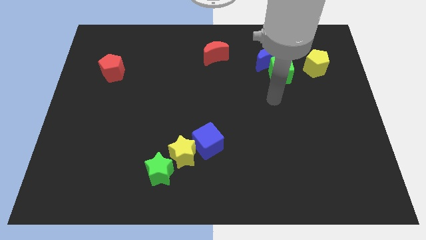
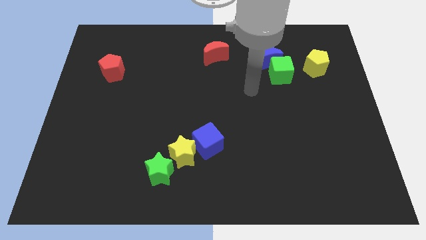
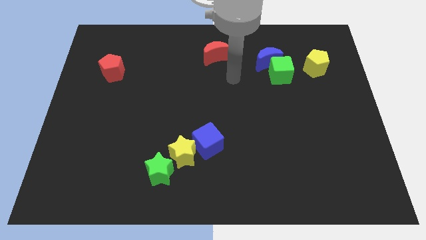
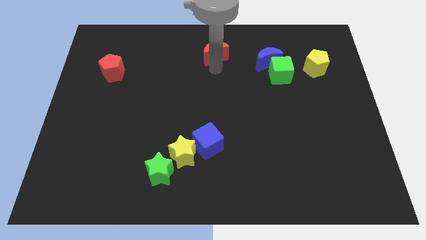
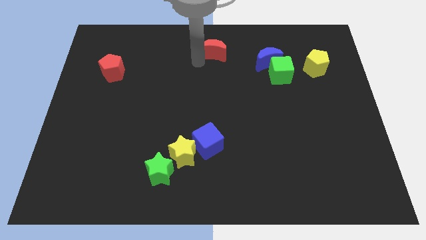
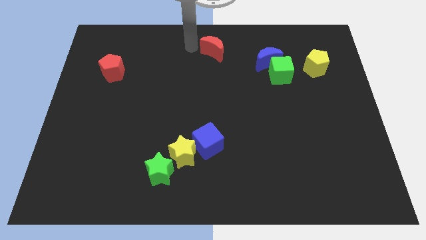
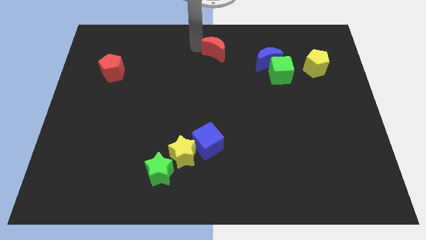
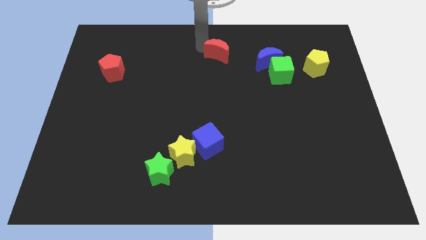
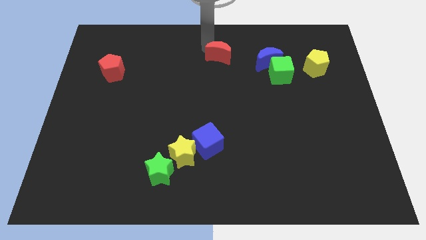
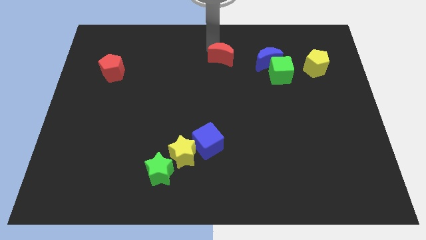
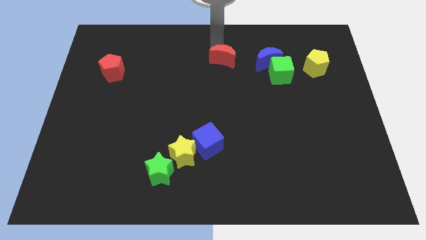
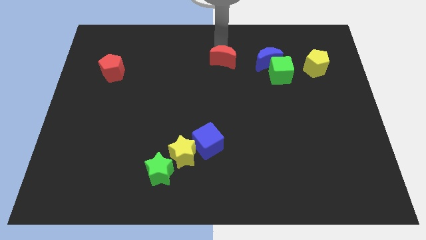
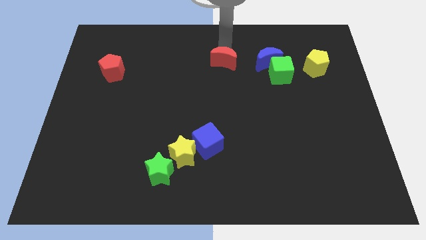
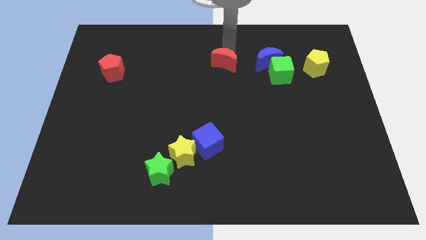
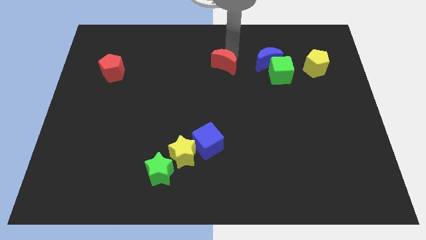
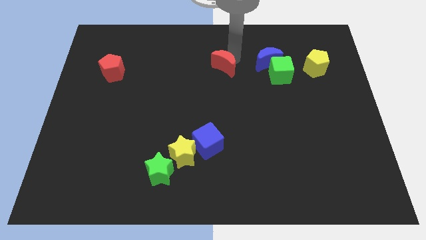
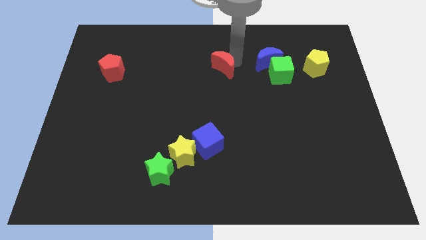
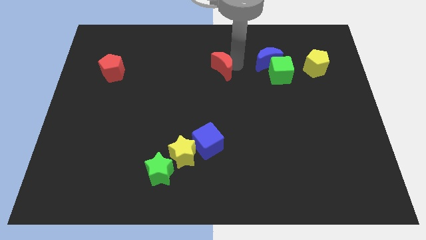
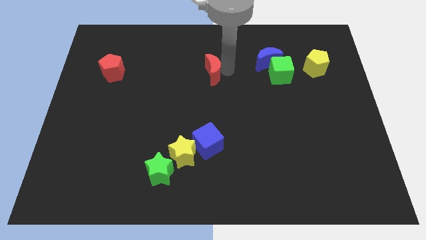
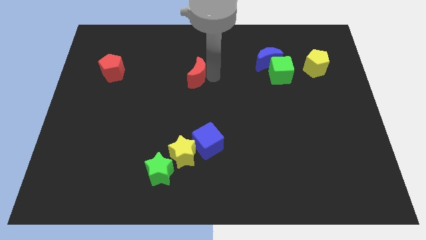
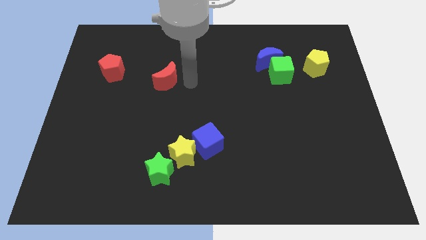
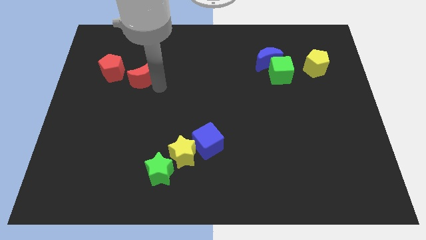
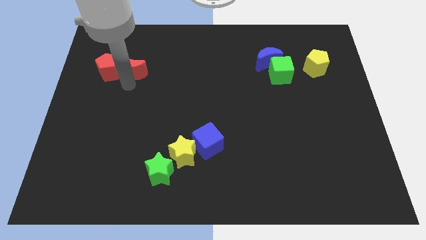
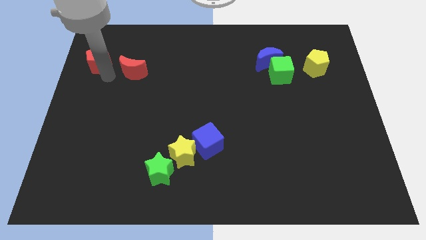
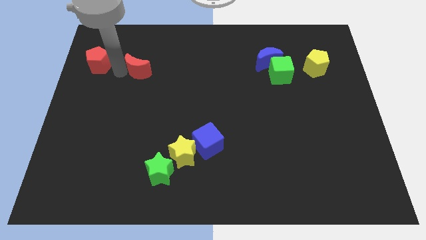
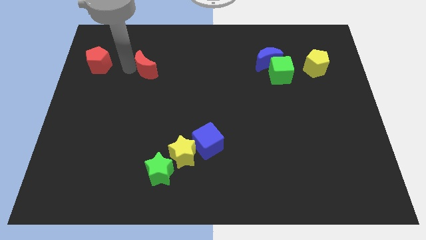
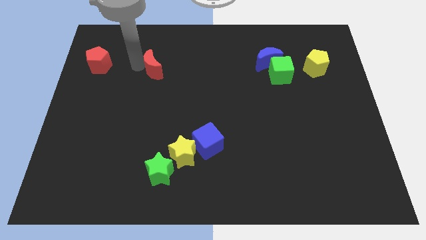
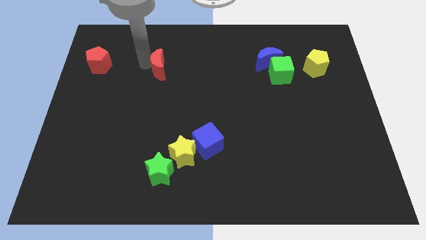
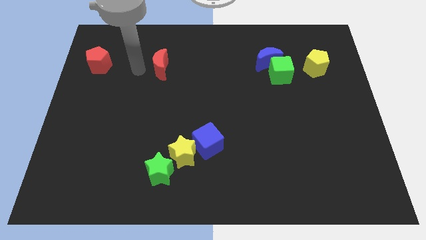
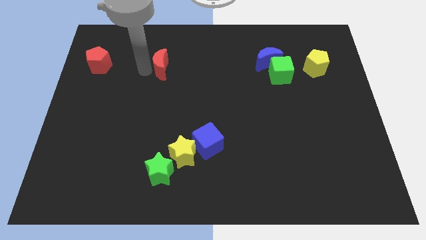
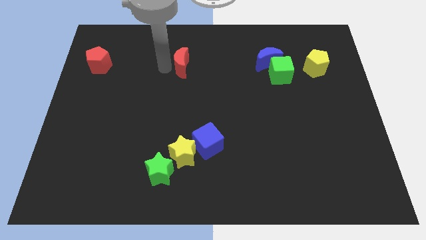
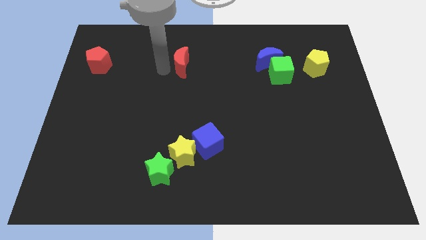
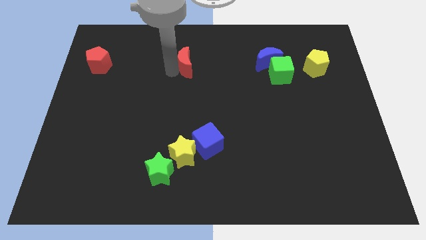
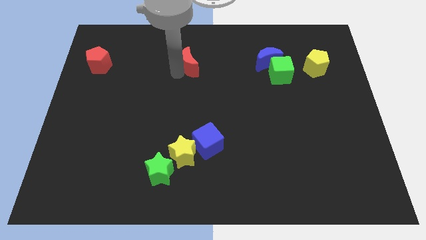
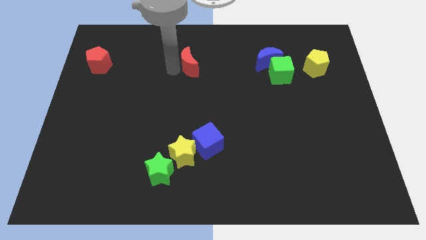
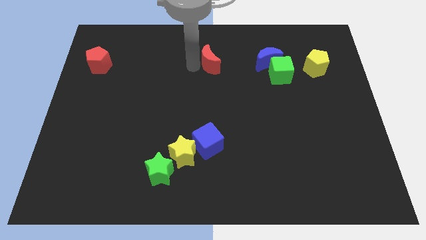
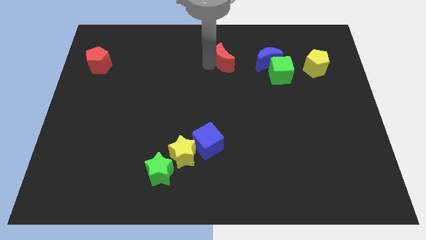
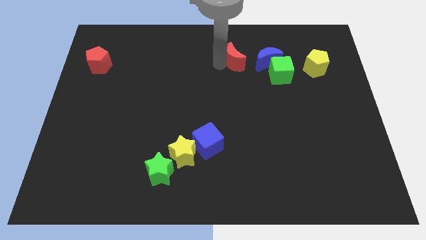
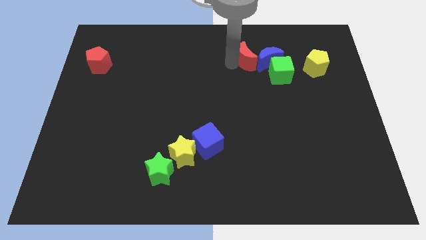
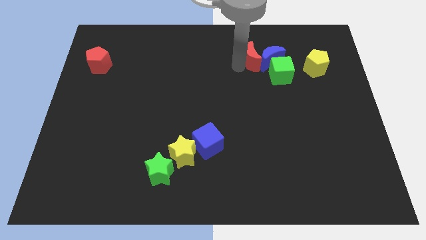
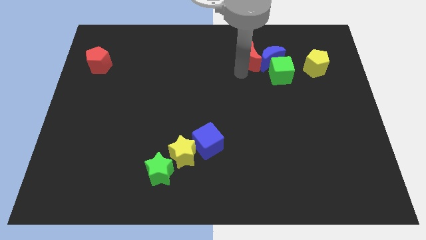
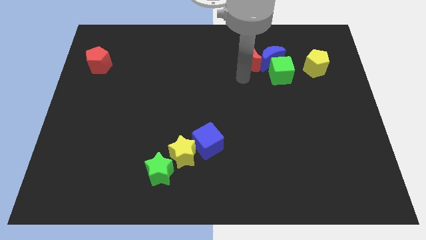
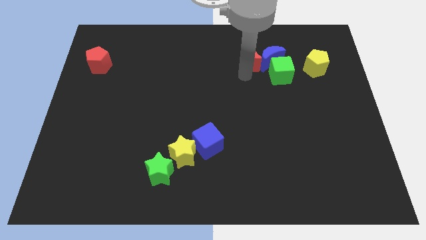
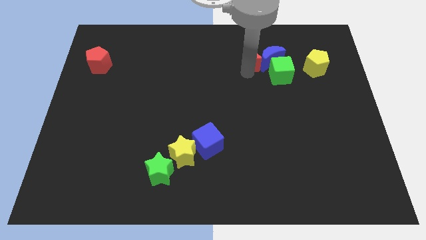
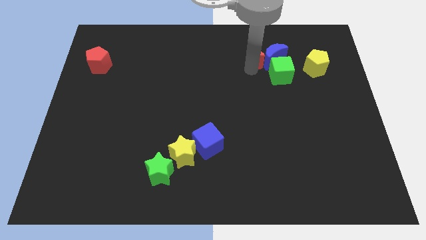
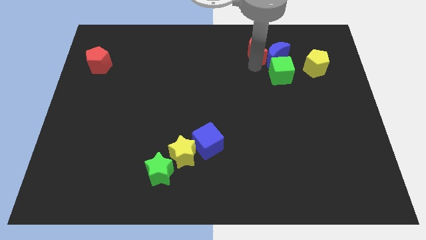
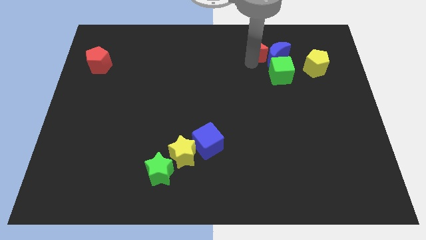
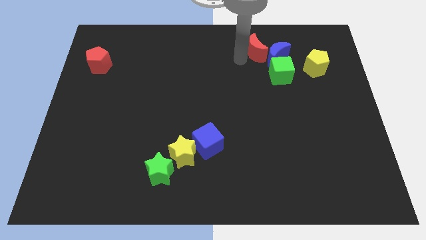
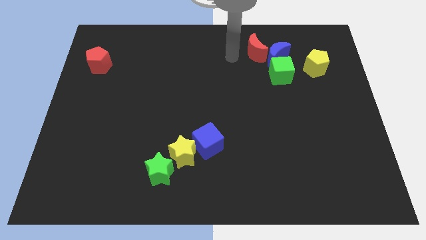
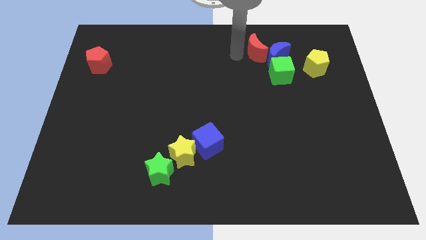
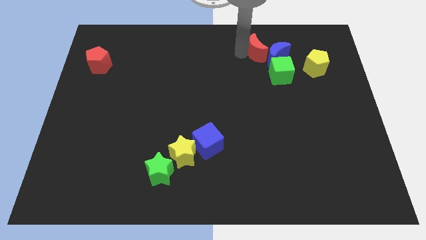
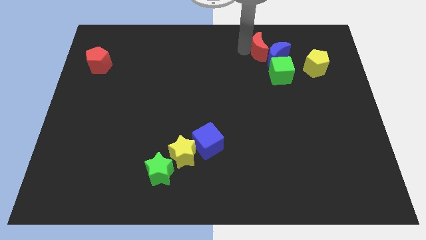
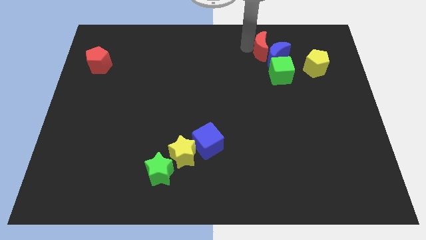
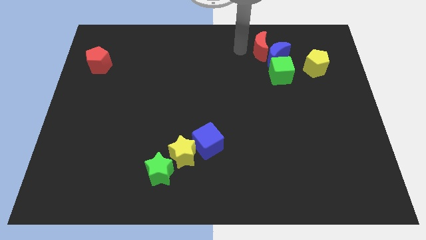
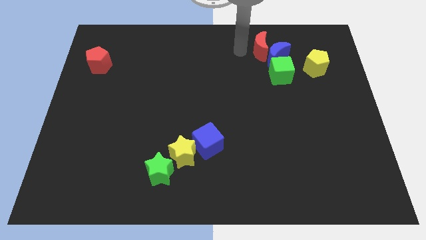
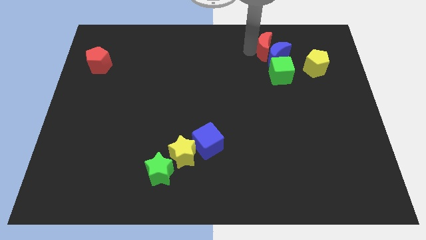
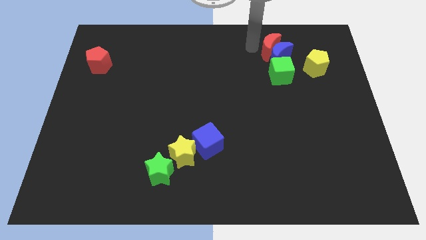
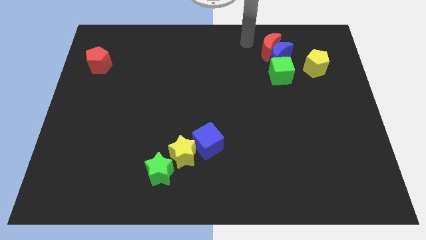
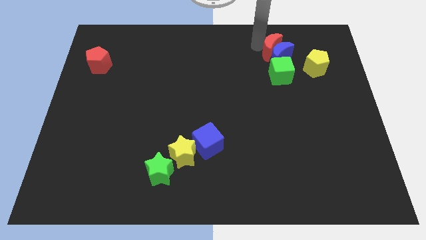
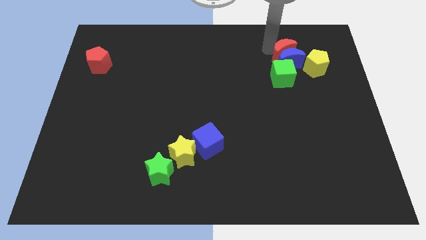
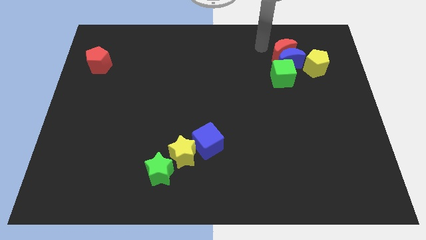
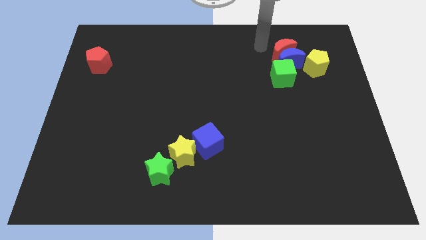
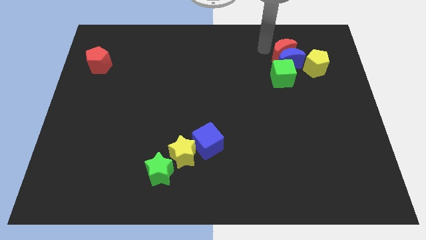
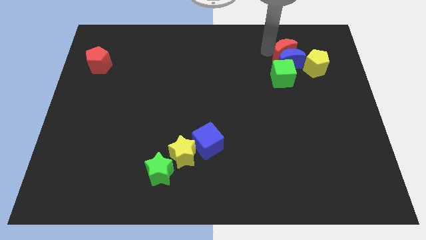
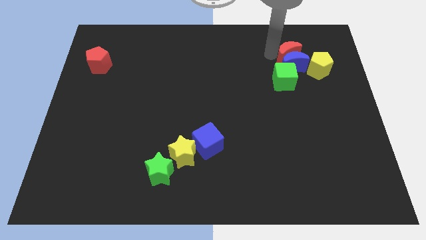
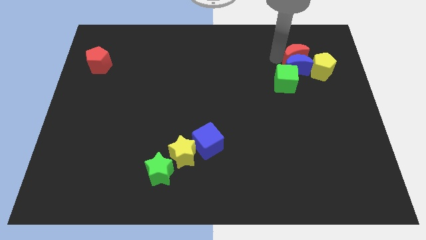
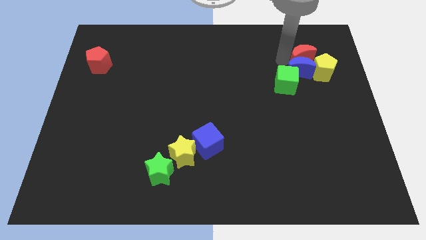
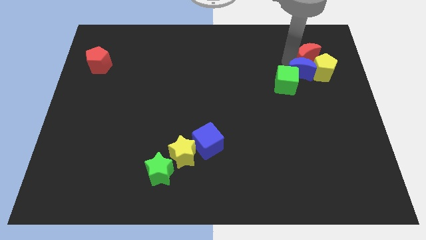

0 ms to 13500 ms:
push the red moon next to the yellow pentagon
